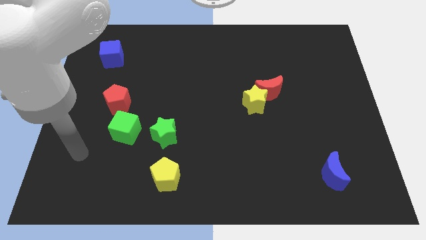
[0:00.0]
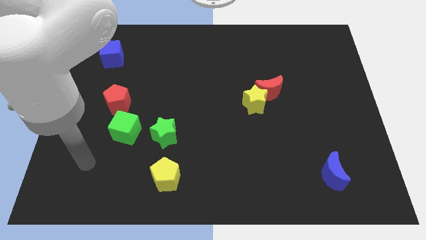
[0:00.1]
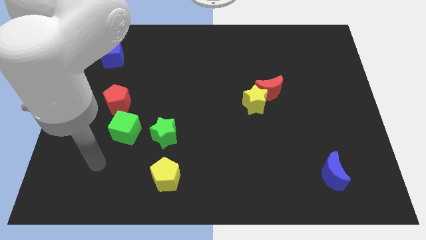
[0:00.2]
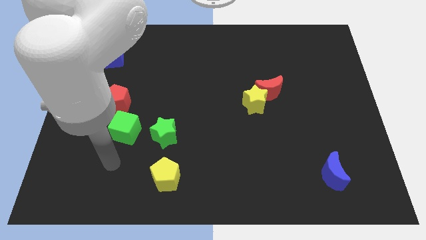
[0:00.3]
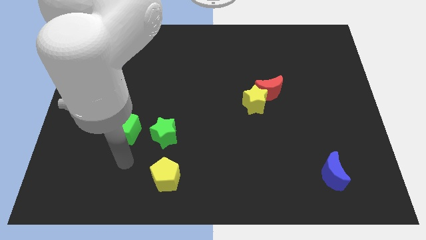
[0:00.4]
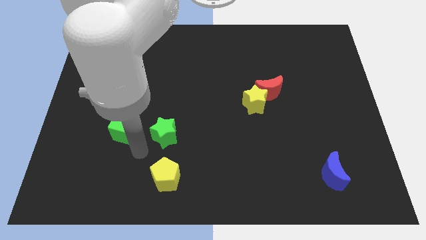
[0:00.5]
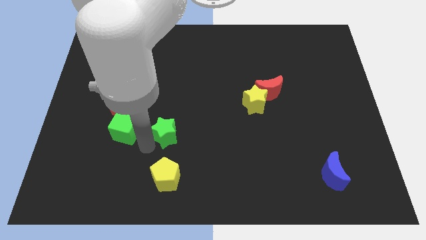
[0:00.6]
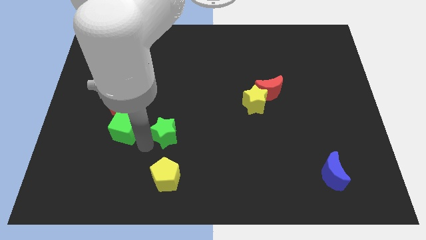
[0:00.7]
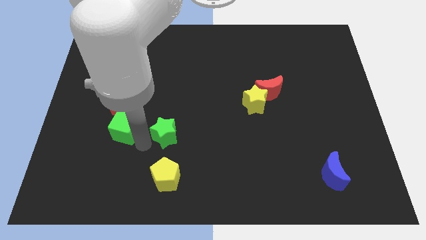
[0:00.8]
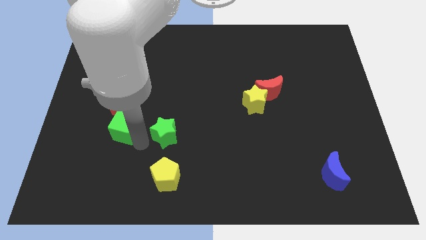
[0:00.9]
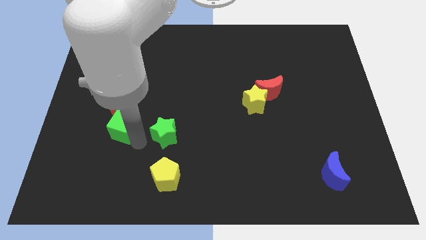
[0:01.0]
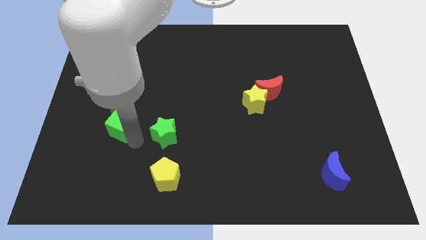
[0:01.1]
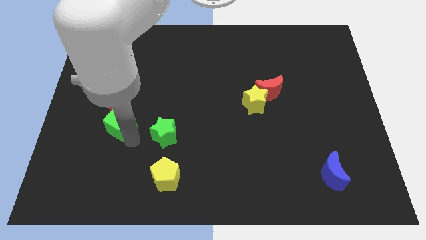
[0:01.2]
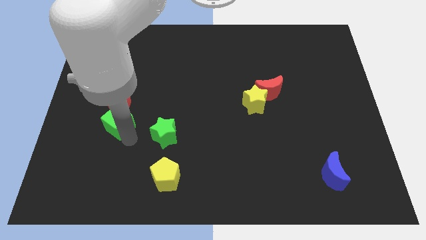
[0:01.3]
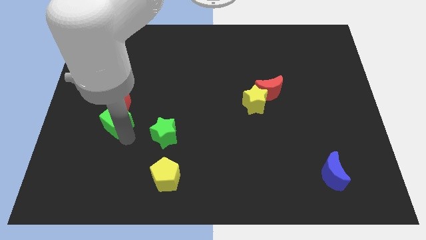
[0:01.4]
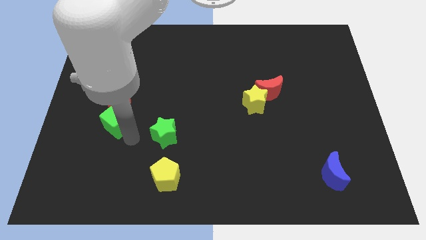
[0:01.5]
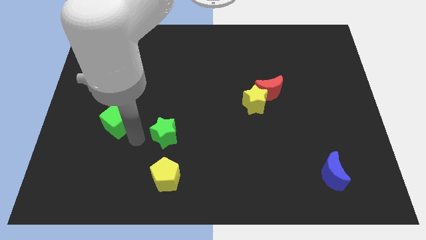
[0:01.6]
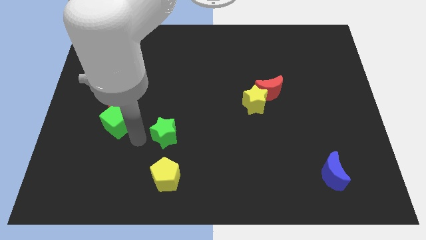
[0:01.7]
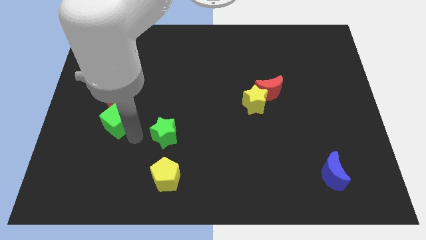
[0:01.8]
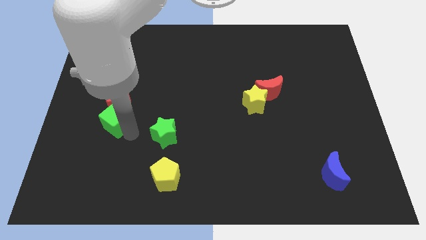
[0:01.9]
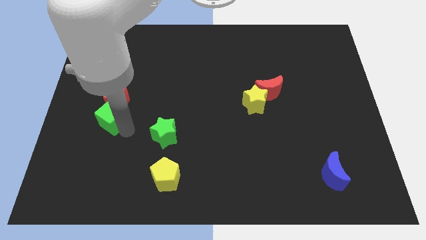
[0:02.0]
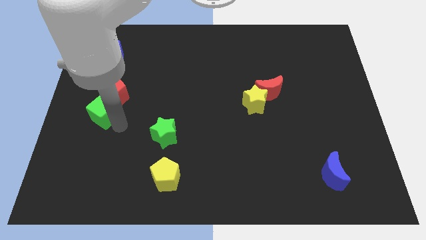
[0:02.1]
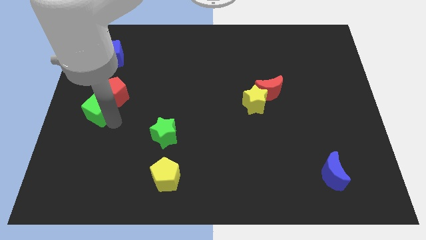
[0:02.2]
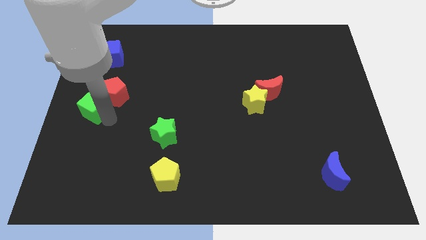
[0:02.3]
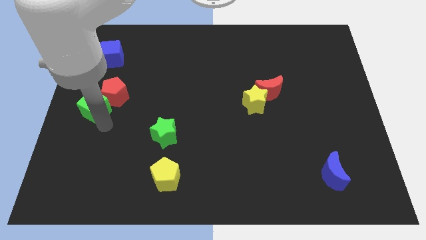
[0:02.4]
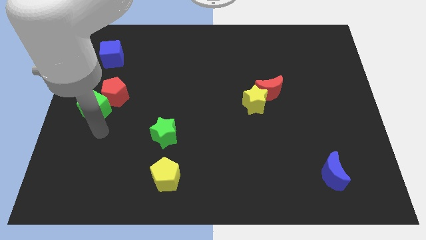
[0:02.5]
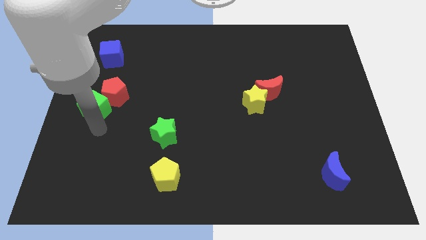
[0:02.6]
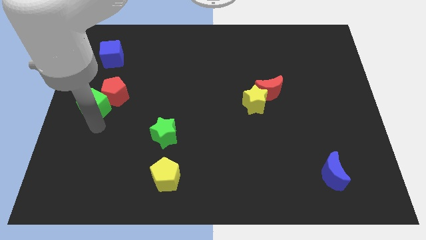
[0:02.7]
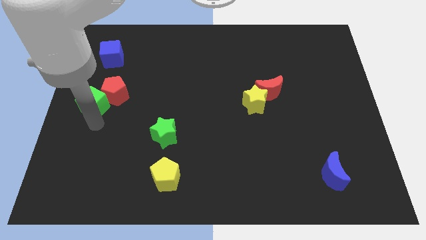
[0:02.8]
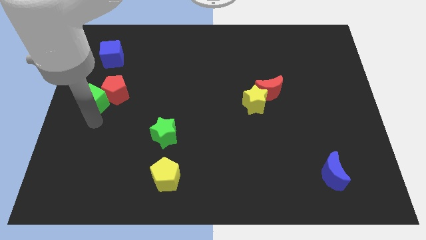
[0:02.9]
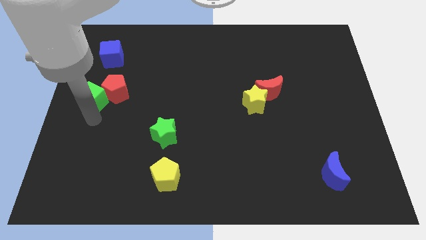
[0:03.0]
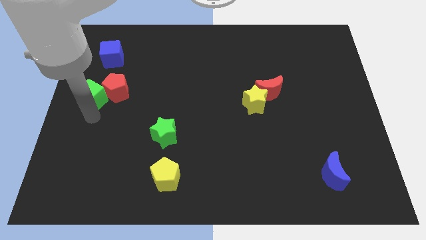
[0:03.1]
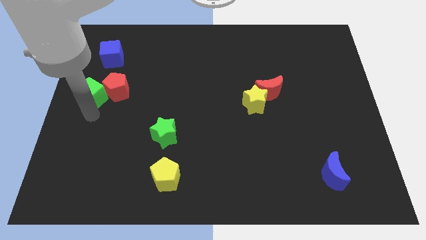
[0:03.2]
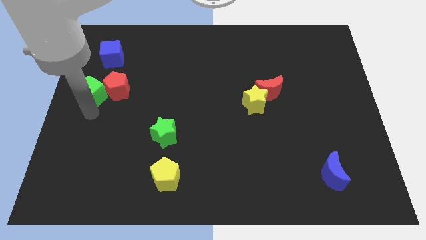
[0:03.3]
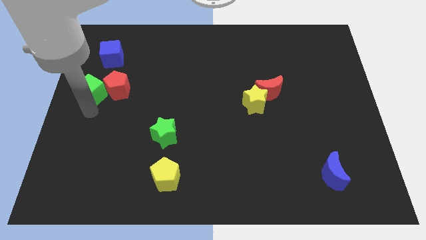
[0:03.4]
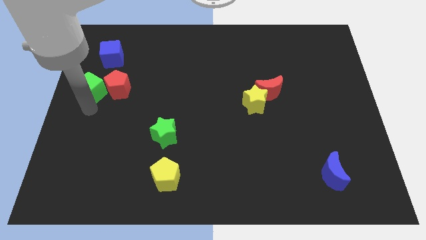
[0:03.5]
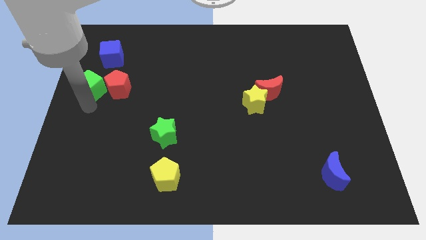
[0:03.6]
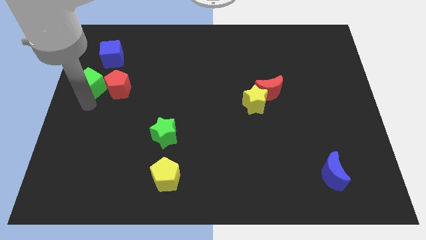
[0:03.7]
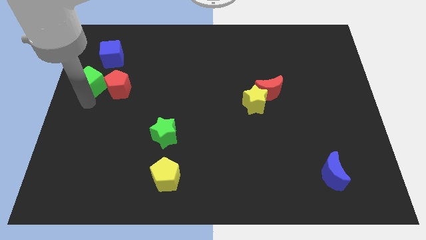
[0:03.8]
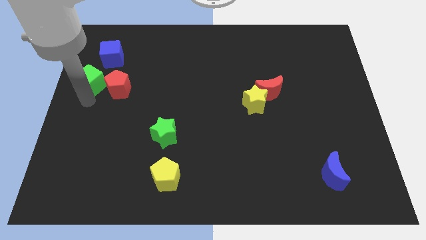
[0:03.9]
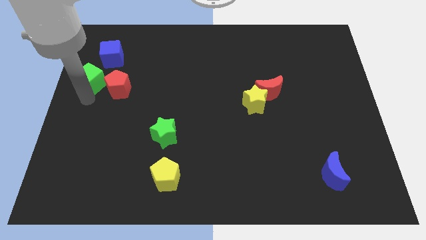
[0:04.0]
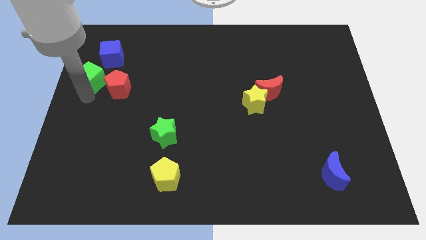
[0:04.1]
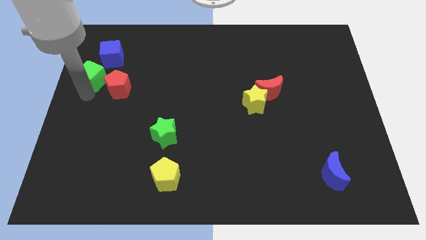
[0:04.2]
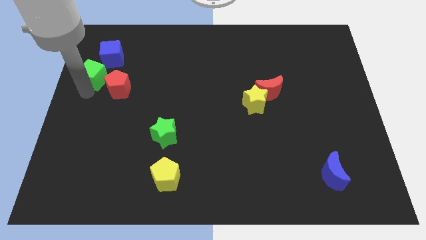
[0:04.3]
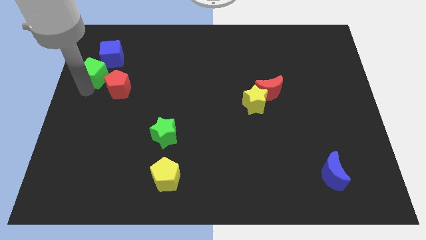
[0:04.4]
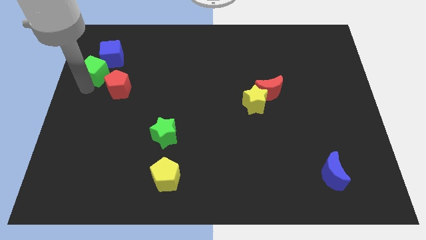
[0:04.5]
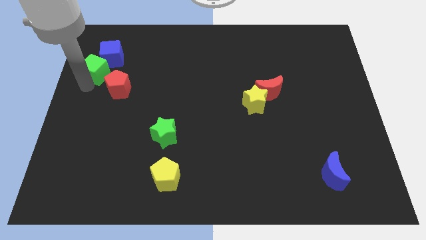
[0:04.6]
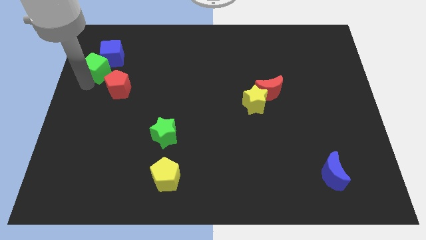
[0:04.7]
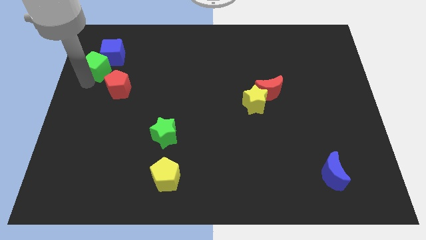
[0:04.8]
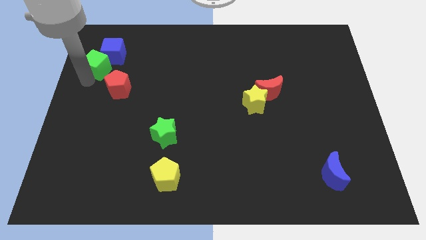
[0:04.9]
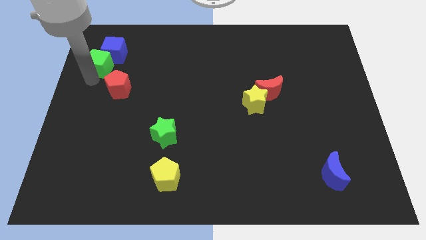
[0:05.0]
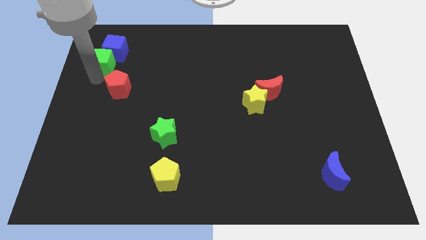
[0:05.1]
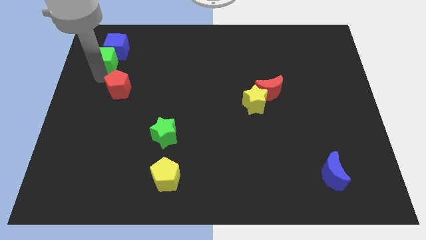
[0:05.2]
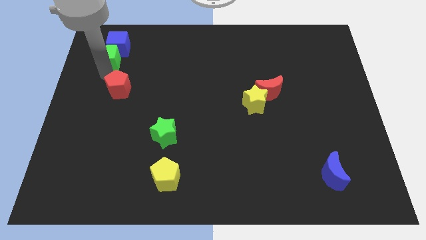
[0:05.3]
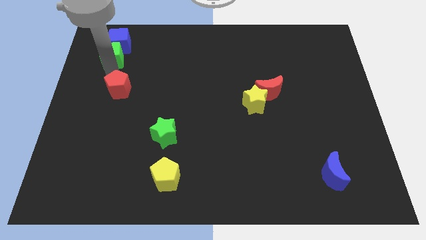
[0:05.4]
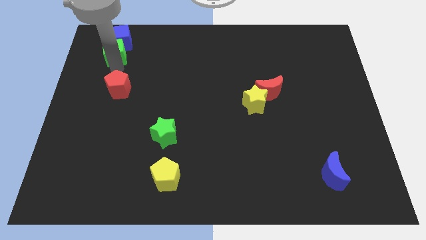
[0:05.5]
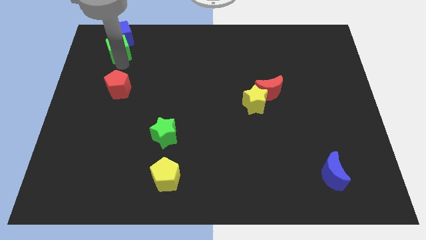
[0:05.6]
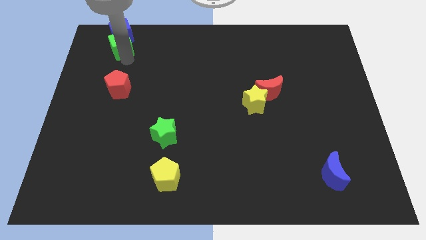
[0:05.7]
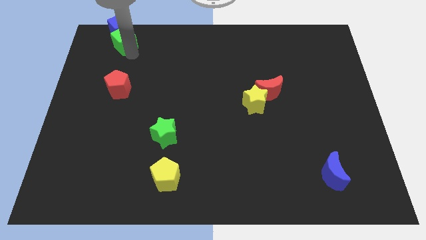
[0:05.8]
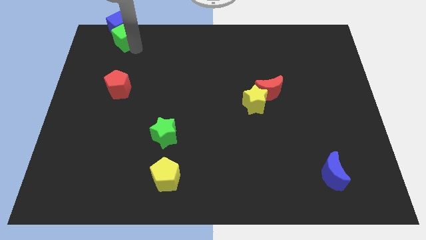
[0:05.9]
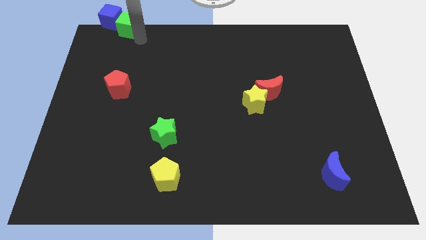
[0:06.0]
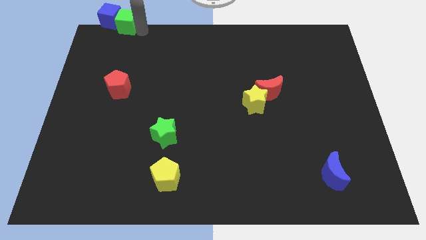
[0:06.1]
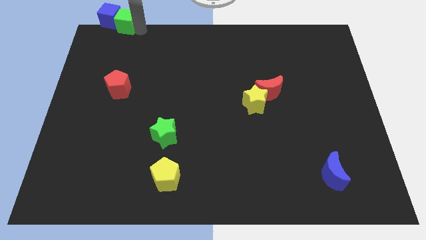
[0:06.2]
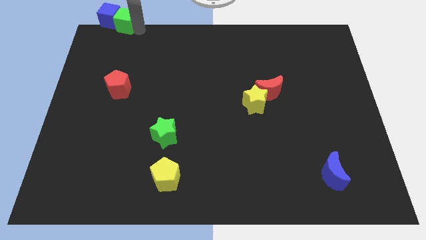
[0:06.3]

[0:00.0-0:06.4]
move the green cube to the top left of the board
